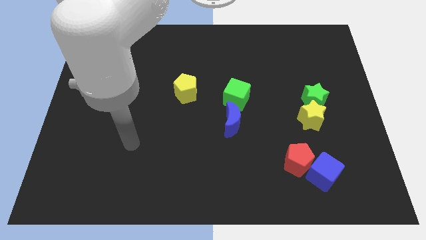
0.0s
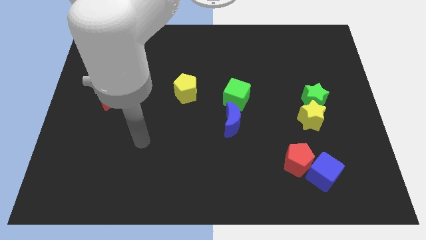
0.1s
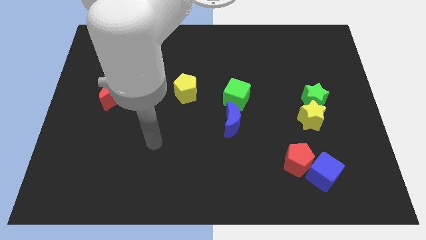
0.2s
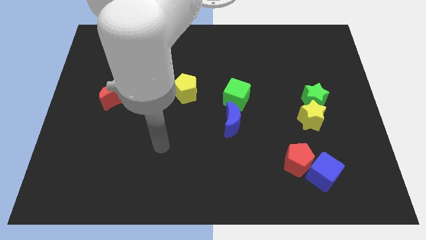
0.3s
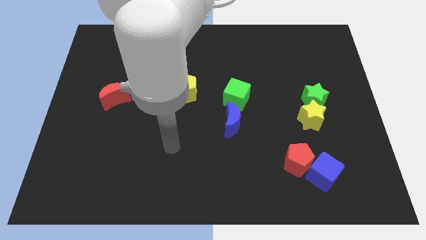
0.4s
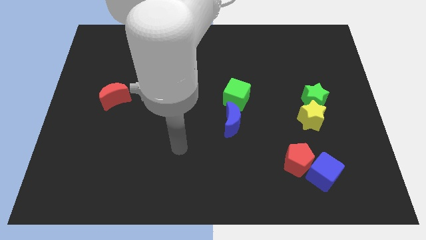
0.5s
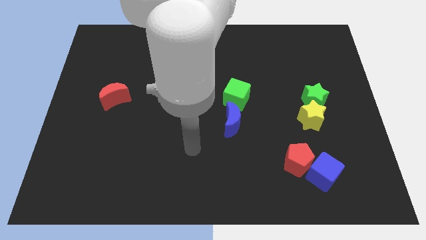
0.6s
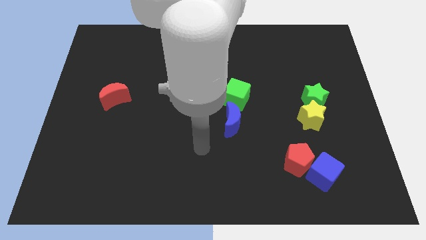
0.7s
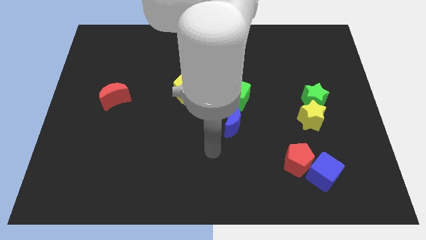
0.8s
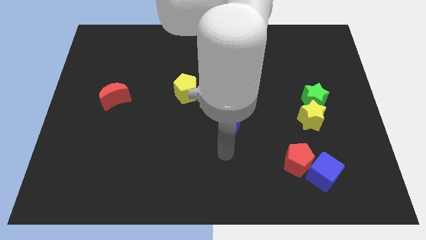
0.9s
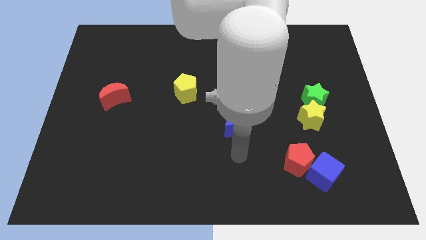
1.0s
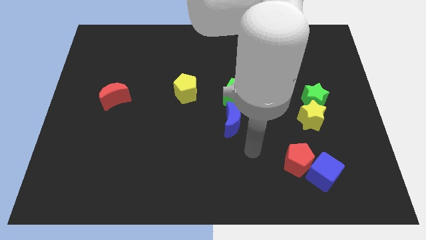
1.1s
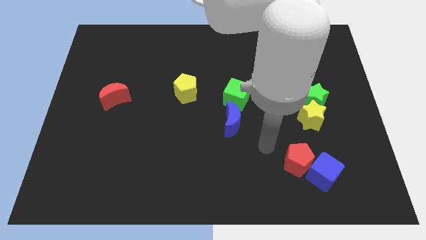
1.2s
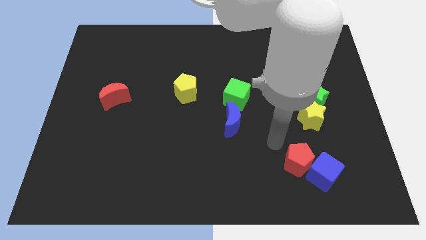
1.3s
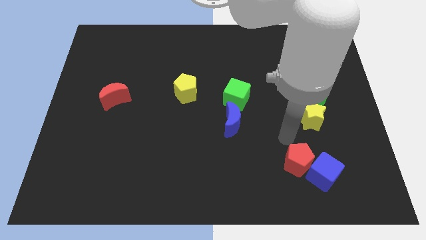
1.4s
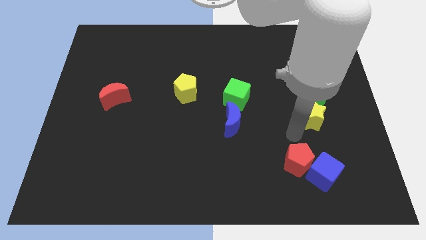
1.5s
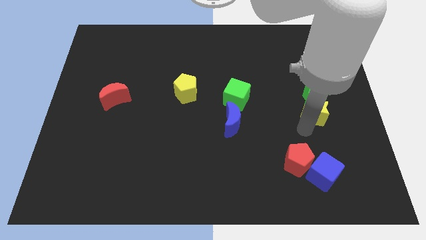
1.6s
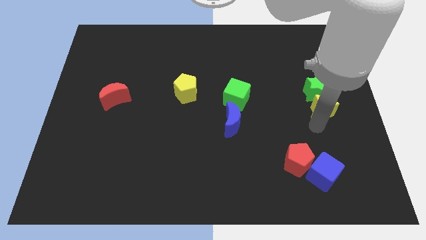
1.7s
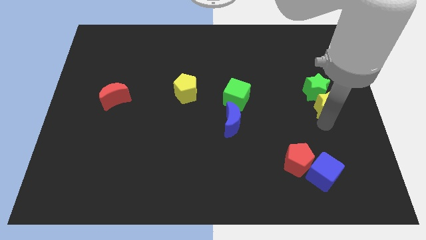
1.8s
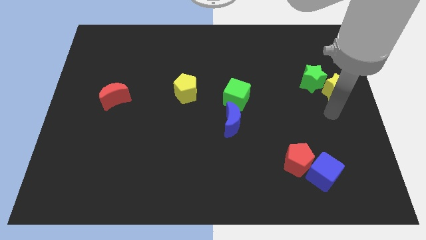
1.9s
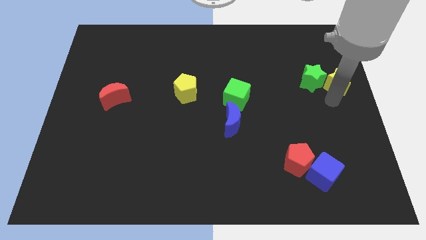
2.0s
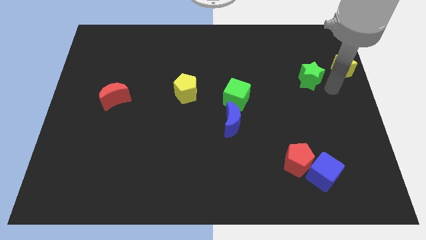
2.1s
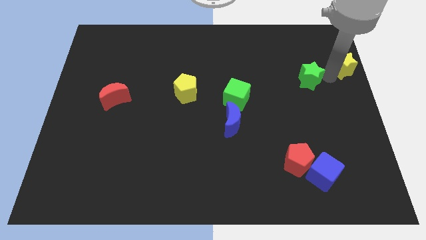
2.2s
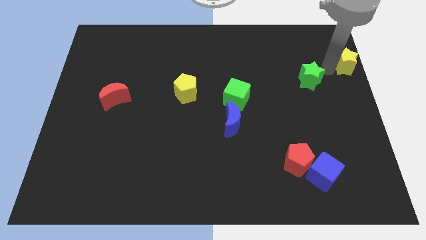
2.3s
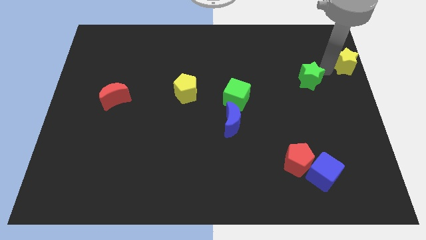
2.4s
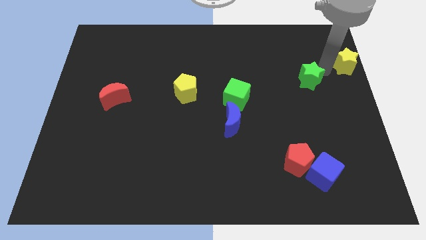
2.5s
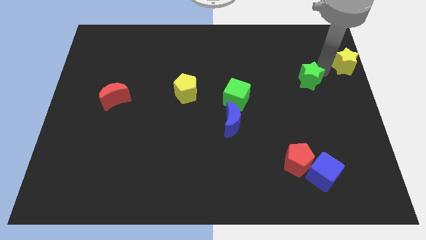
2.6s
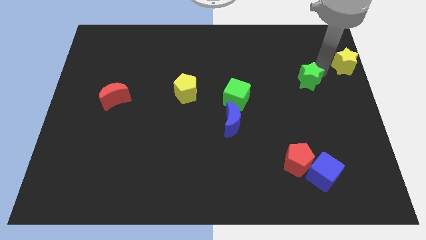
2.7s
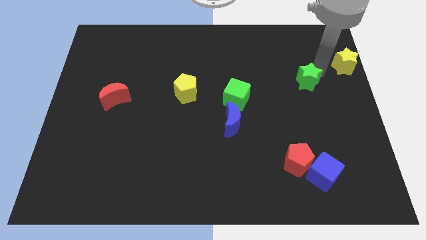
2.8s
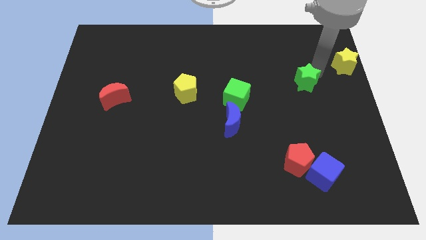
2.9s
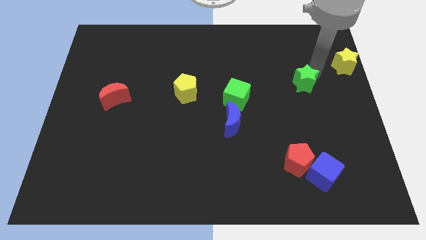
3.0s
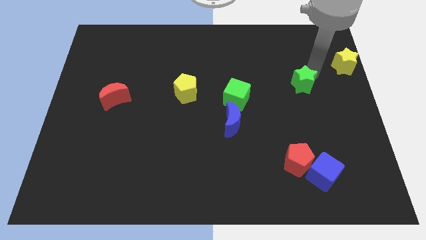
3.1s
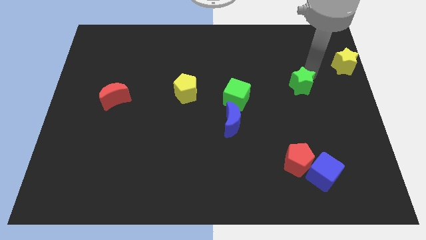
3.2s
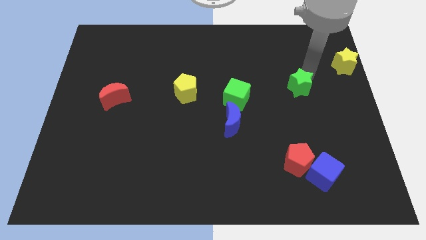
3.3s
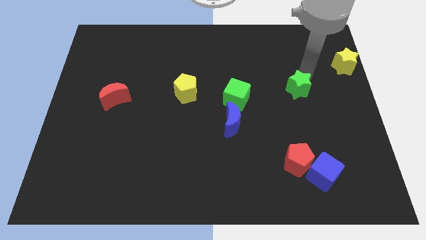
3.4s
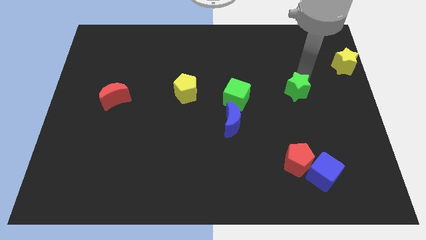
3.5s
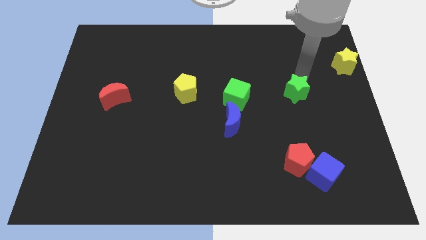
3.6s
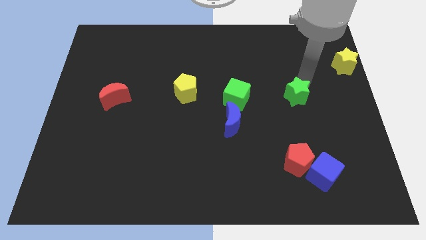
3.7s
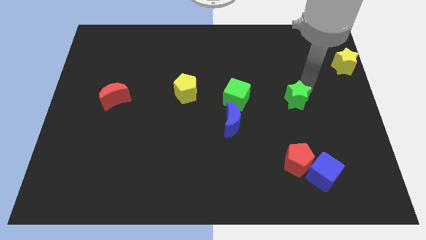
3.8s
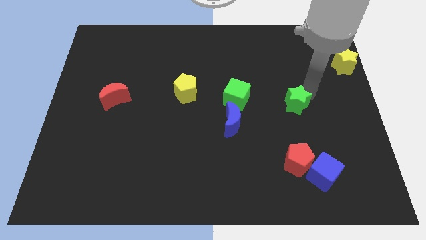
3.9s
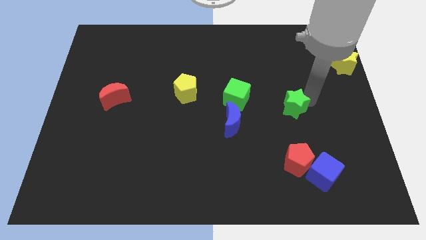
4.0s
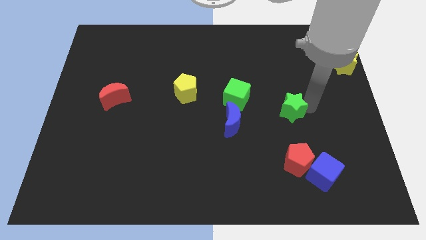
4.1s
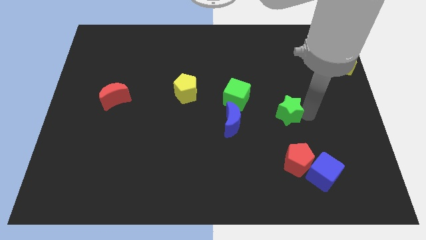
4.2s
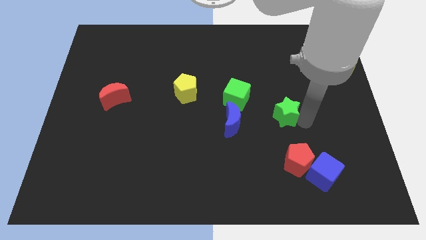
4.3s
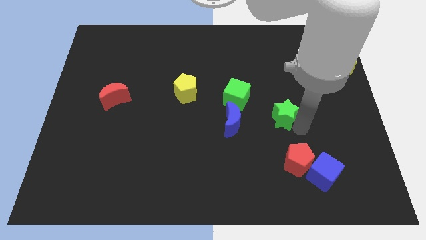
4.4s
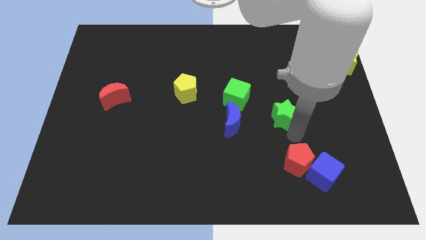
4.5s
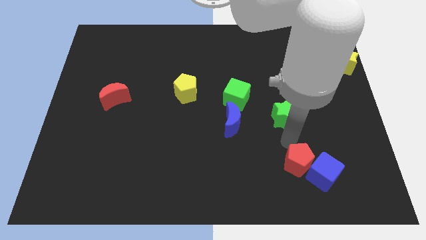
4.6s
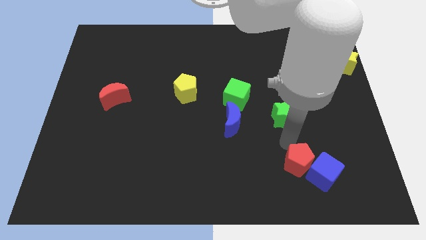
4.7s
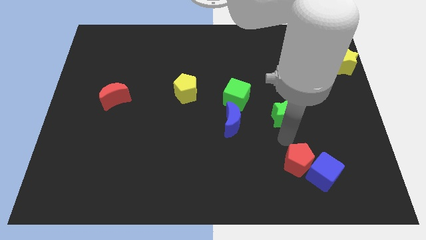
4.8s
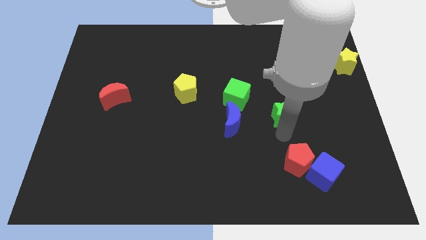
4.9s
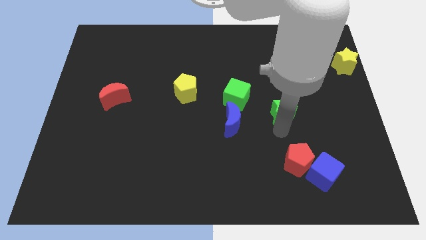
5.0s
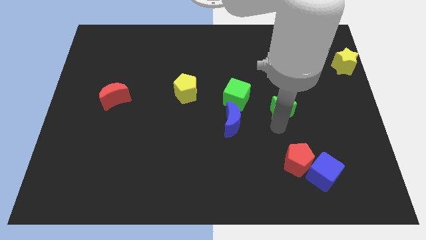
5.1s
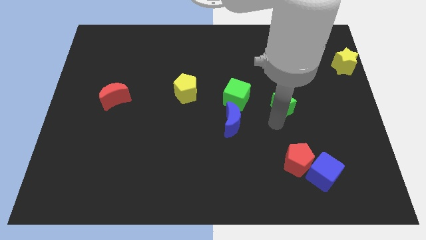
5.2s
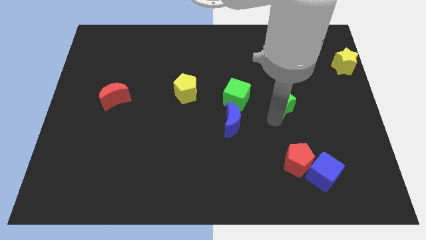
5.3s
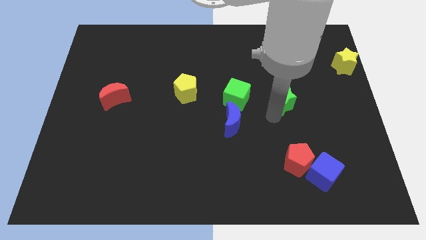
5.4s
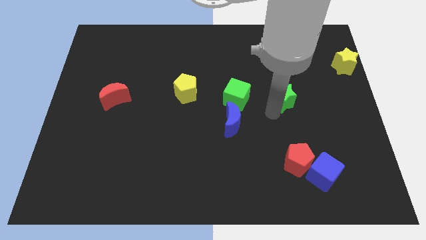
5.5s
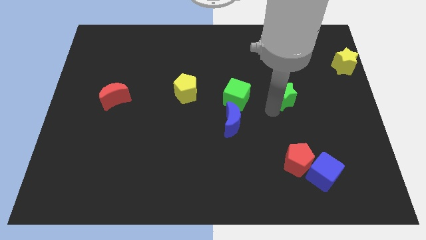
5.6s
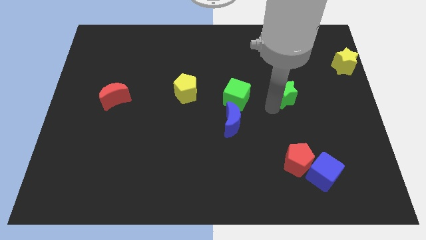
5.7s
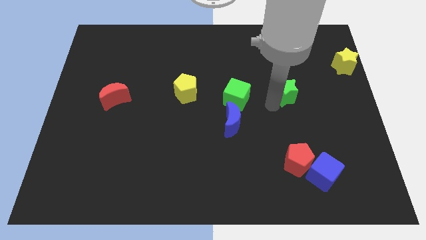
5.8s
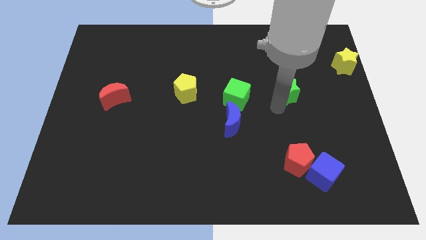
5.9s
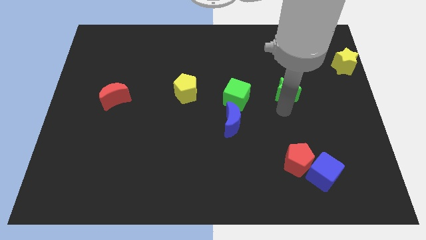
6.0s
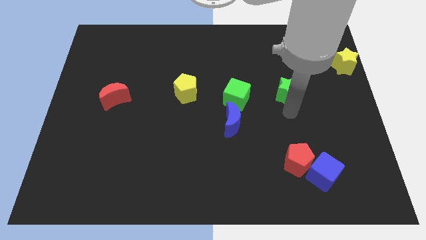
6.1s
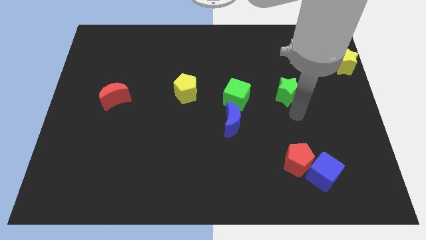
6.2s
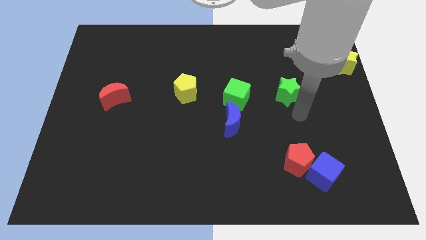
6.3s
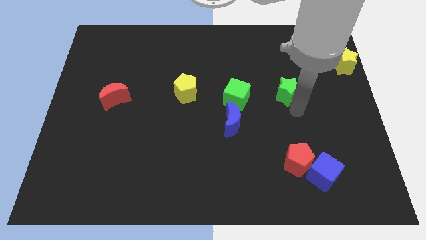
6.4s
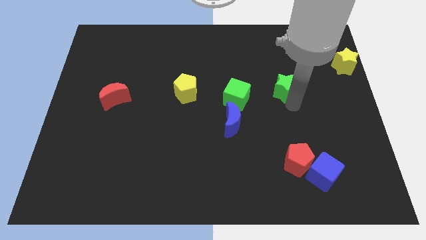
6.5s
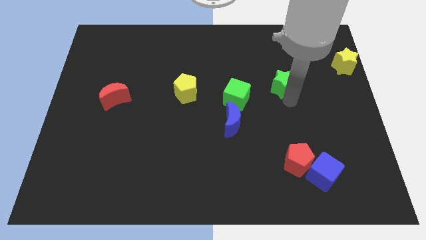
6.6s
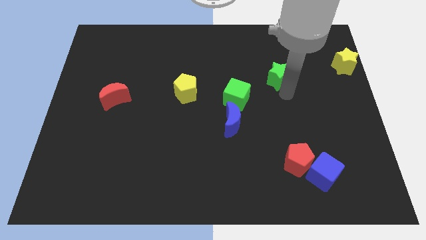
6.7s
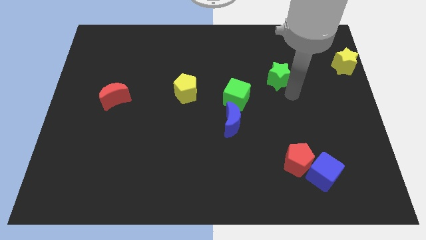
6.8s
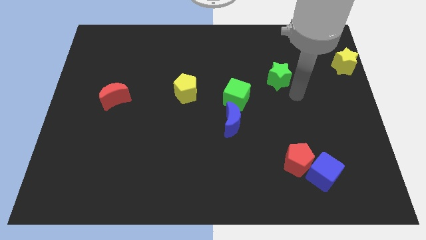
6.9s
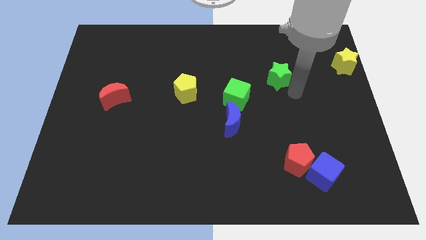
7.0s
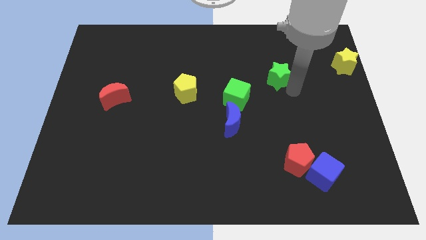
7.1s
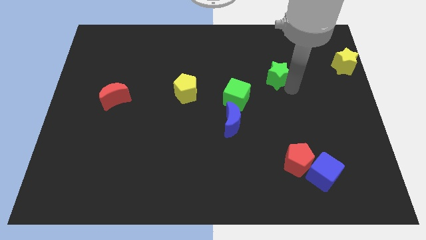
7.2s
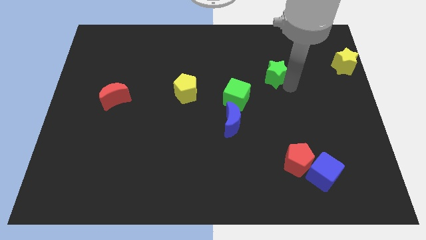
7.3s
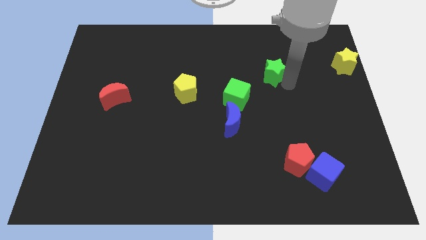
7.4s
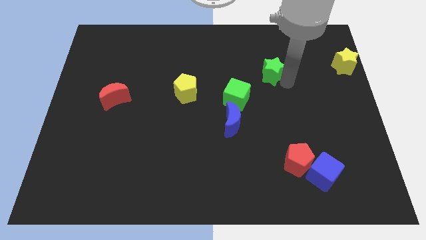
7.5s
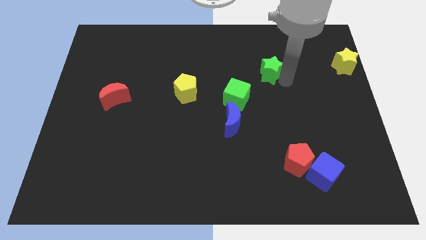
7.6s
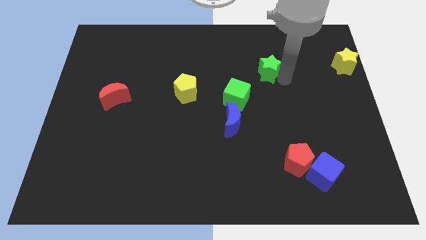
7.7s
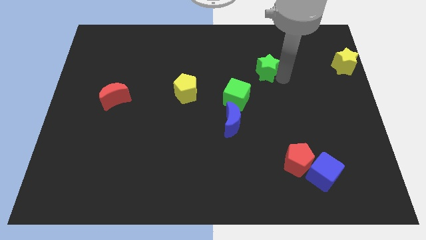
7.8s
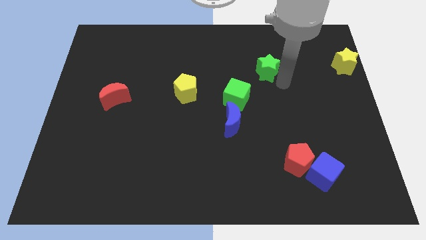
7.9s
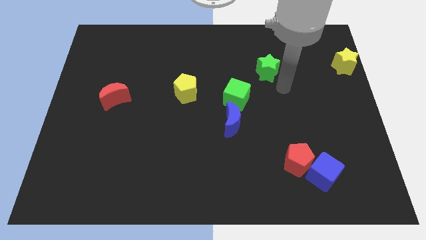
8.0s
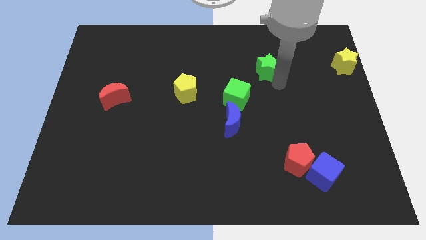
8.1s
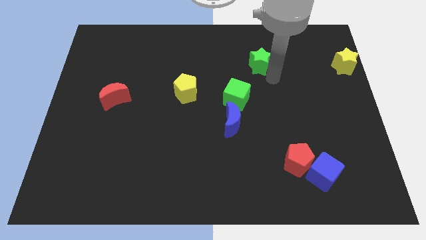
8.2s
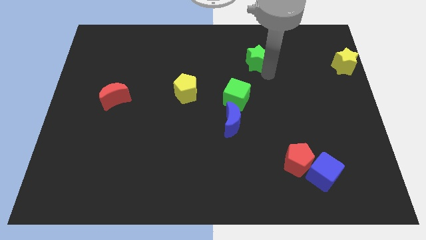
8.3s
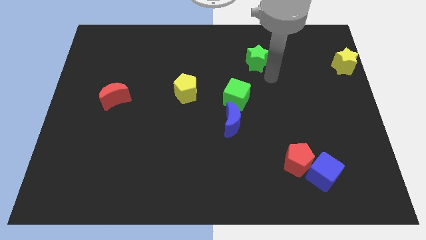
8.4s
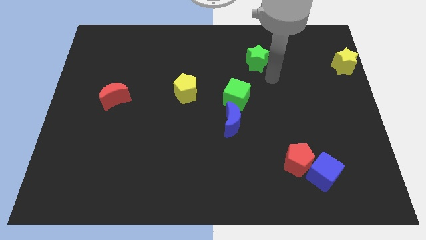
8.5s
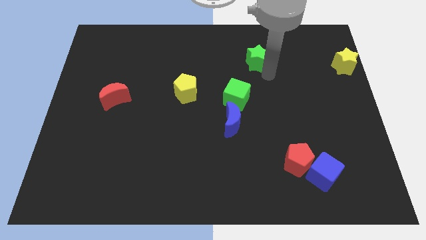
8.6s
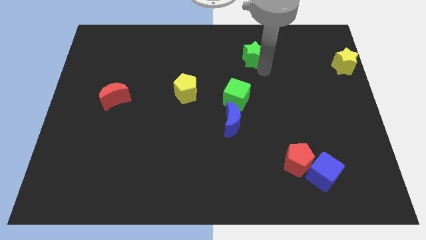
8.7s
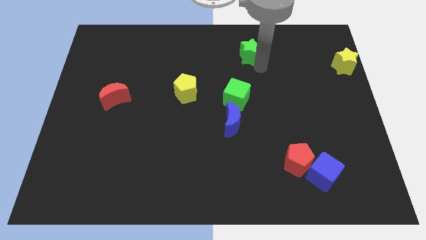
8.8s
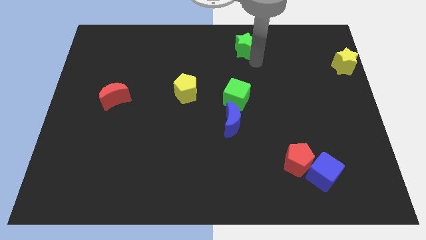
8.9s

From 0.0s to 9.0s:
push the green star to the top side
